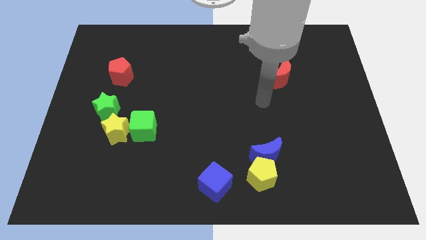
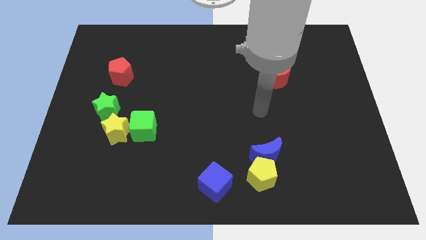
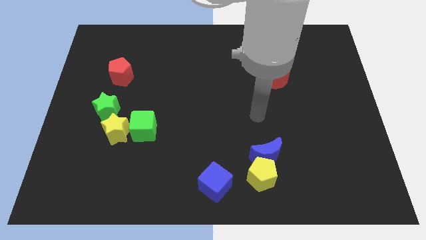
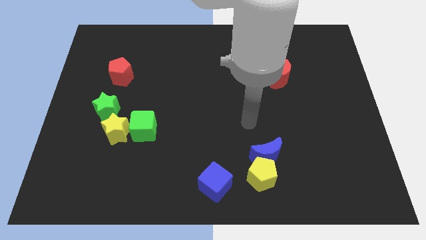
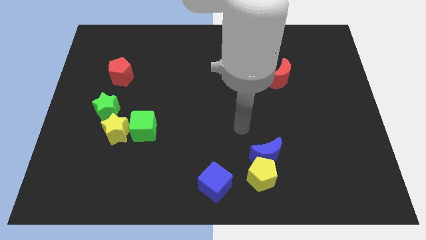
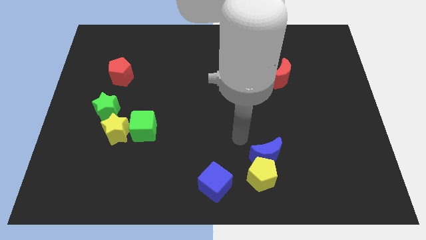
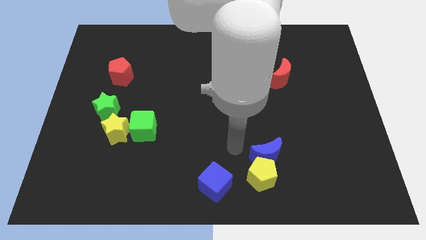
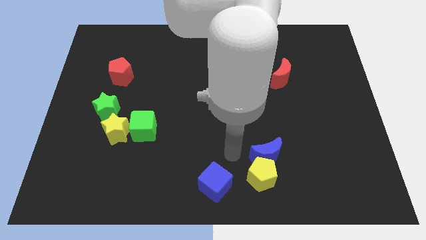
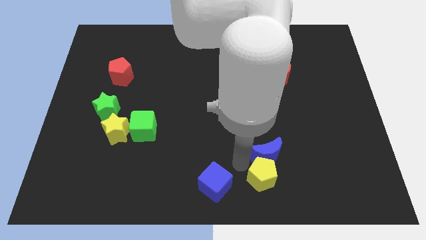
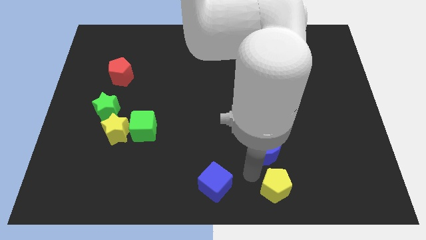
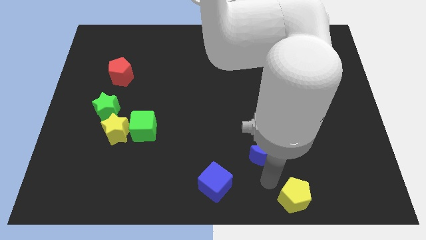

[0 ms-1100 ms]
move the blue moon away from the yellow pentagon

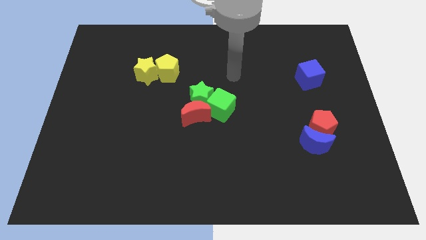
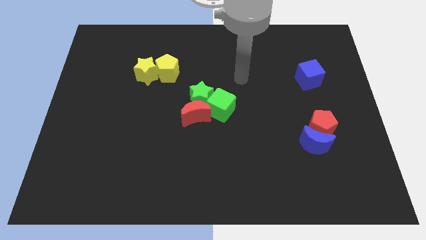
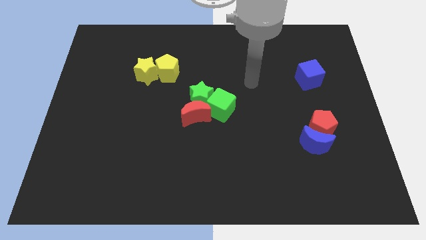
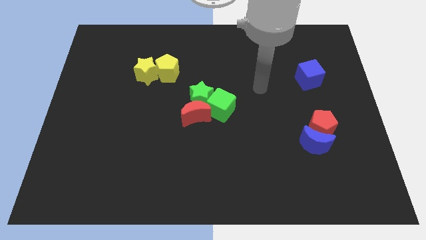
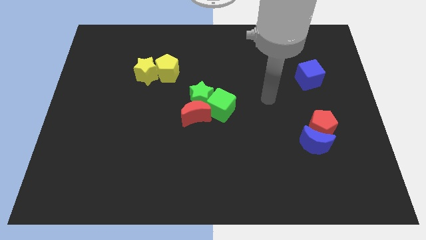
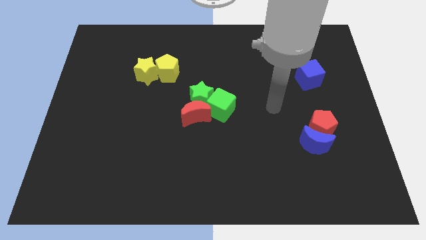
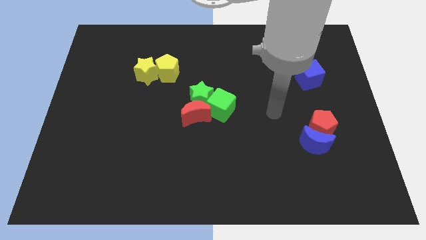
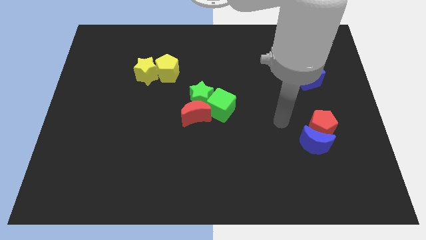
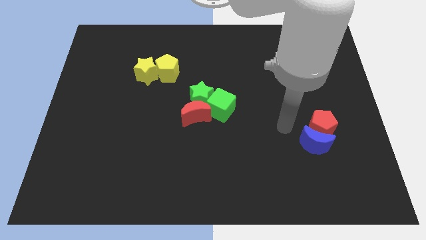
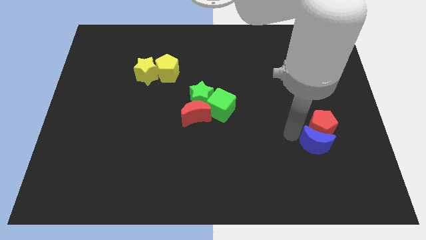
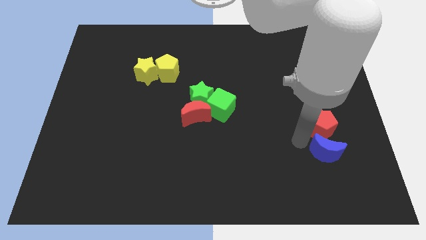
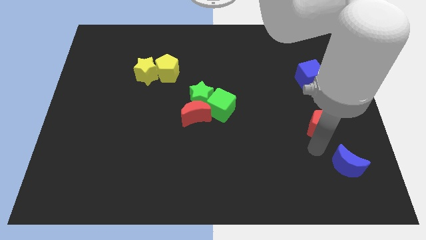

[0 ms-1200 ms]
separate the red pentagon from the blue moon

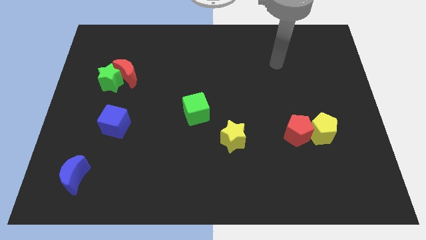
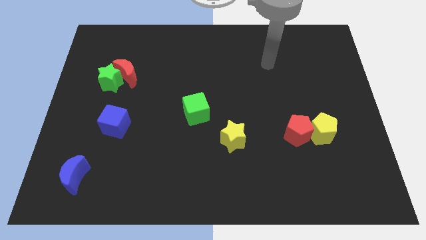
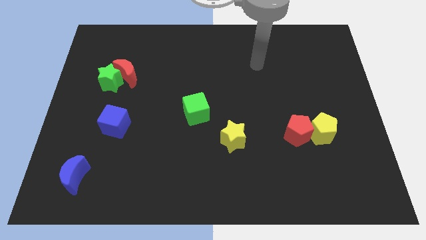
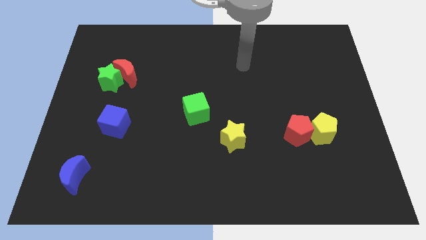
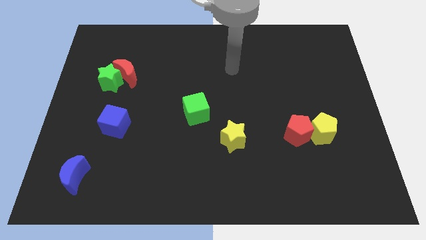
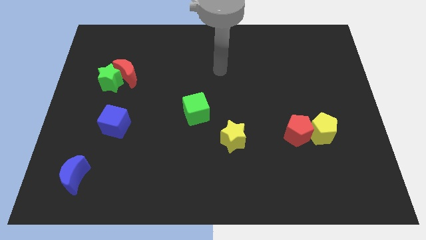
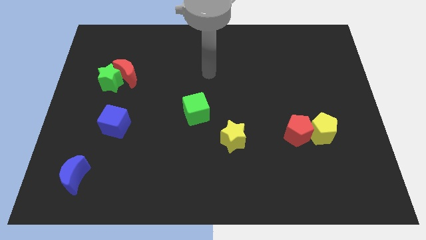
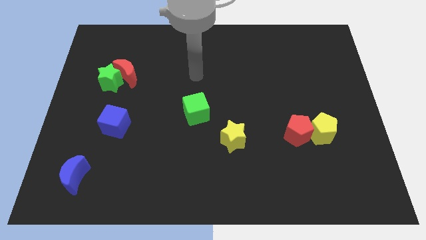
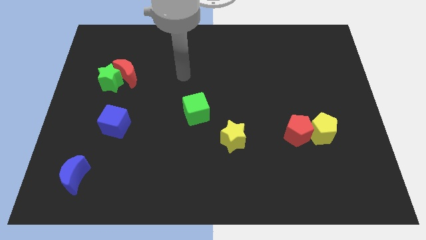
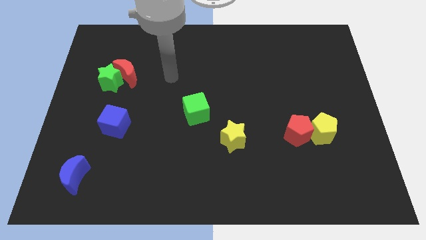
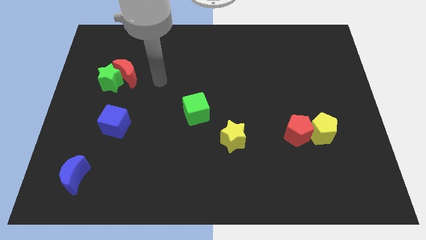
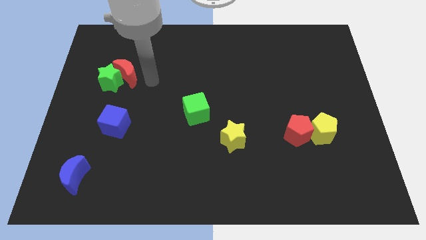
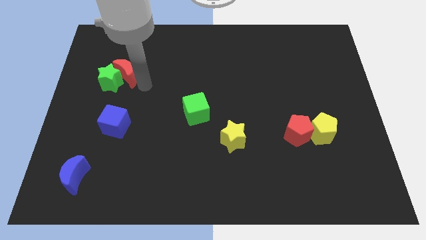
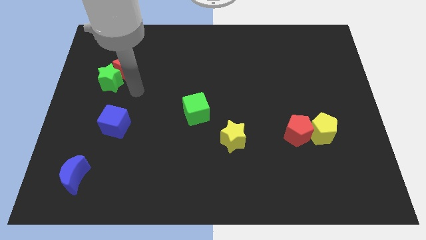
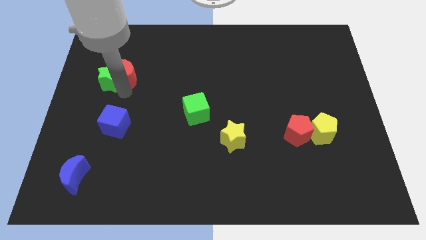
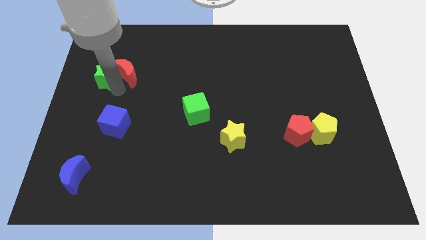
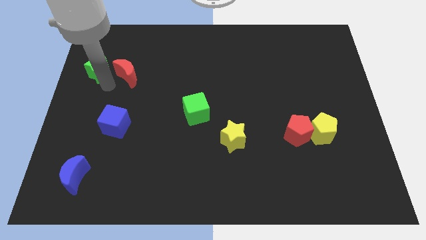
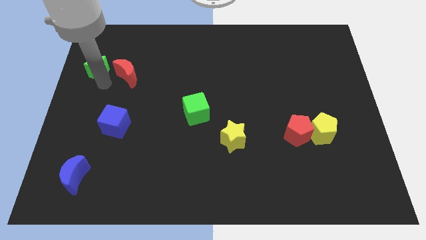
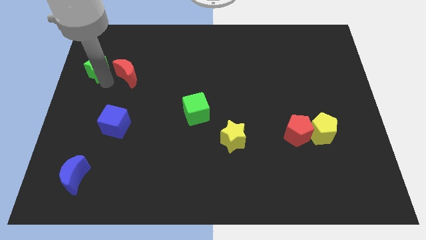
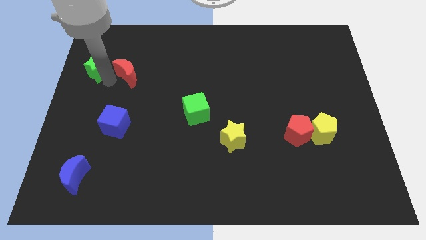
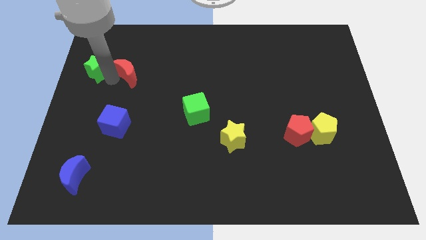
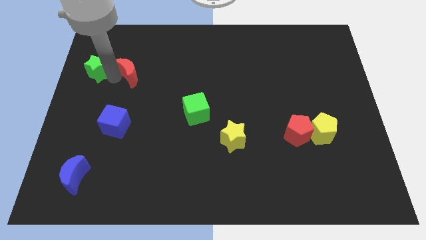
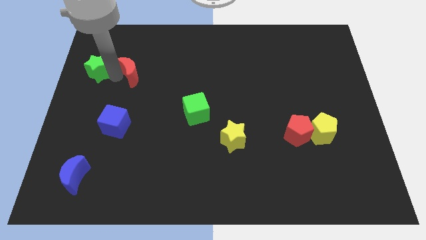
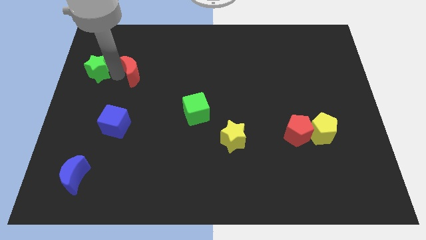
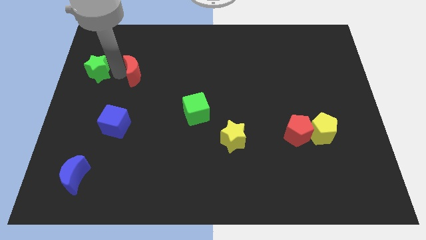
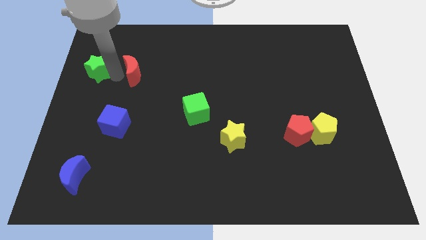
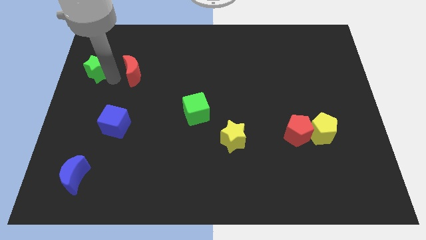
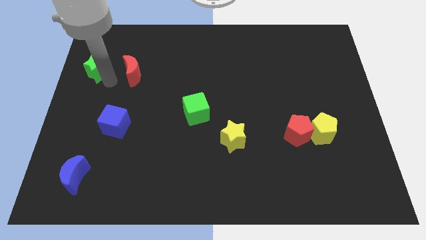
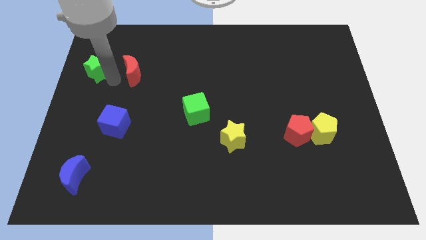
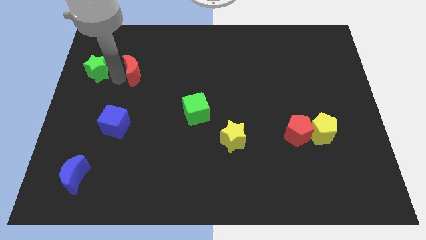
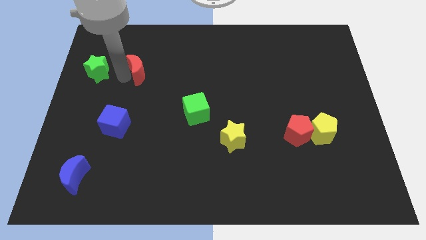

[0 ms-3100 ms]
pull the red moon apart from the green star

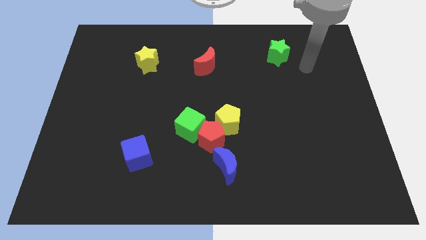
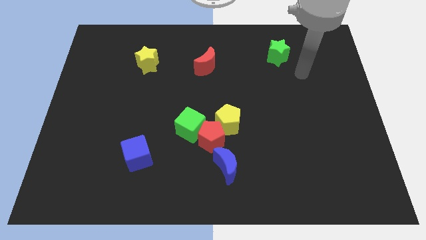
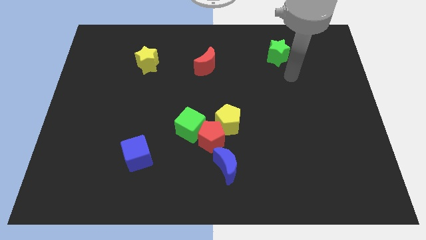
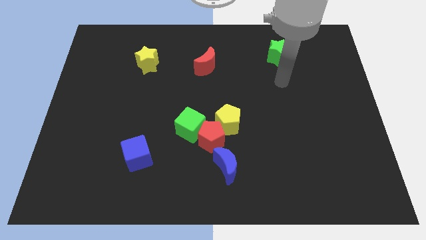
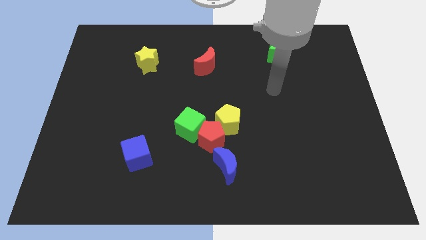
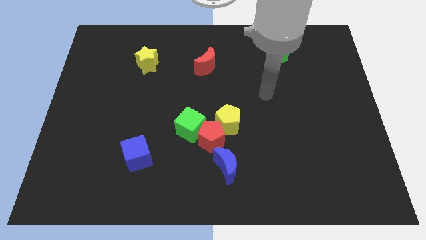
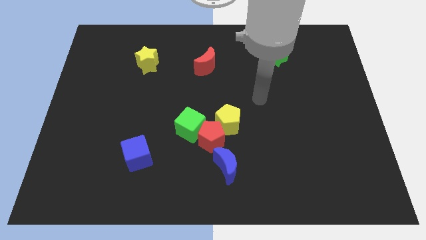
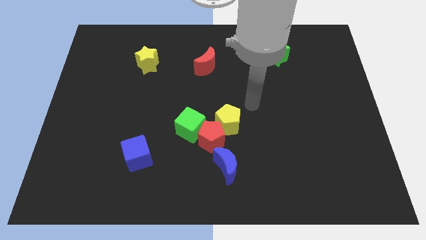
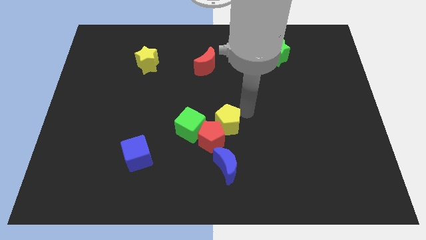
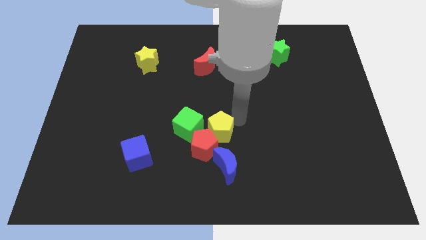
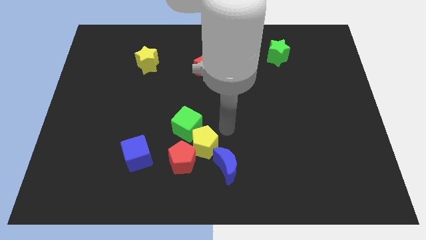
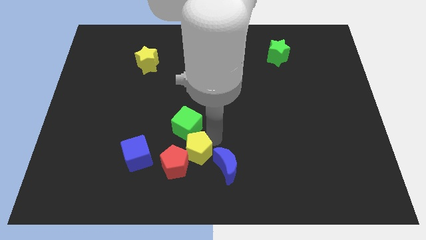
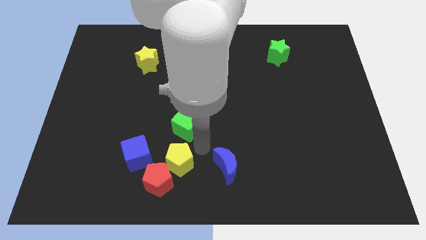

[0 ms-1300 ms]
pull the red pentagon apart from the green cube, yellow pentagon, and blue moon

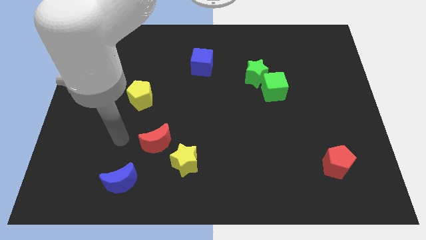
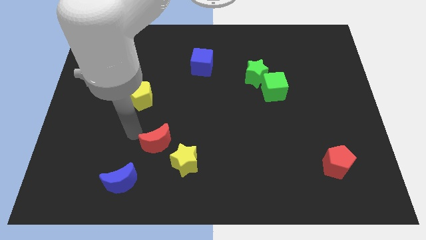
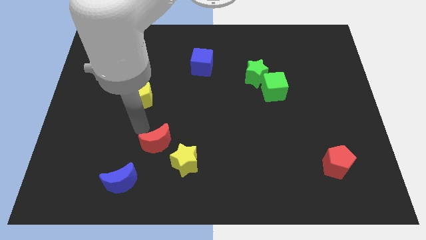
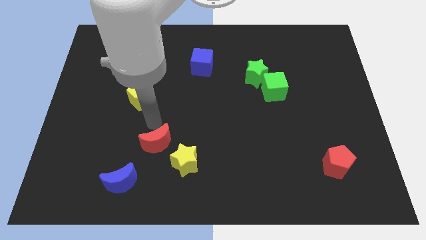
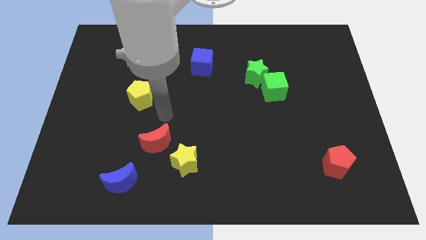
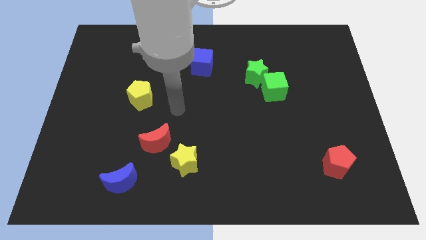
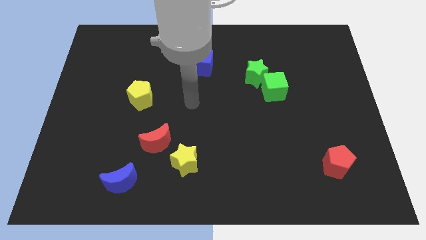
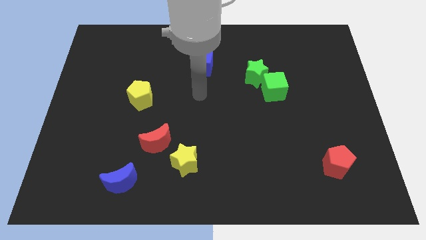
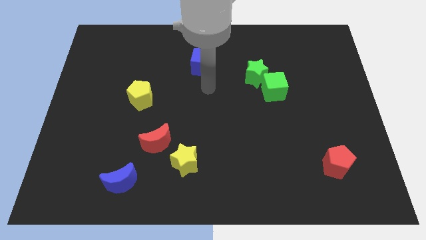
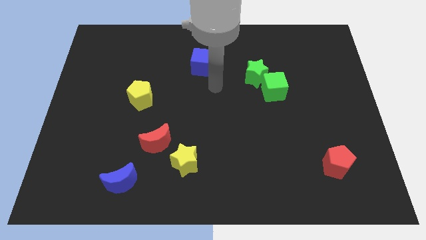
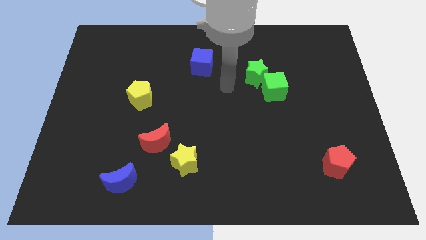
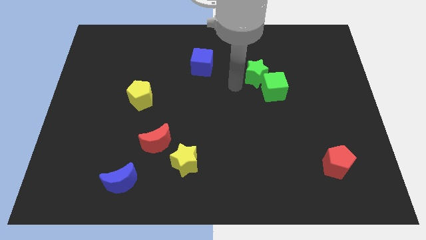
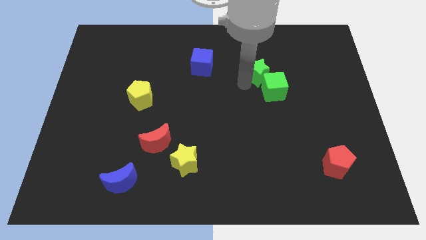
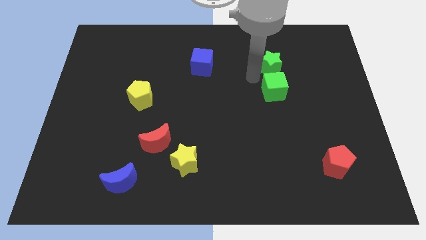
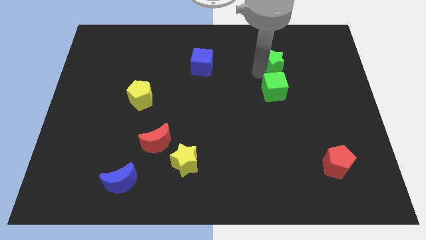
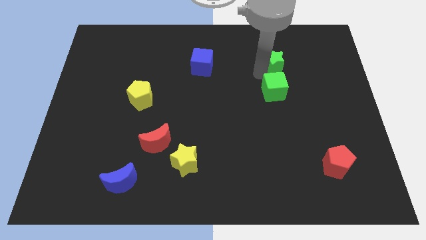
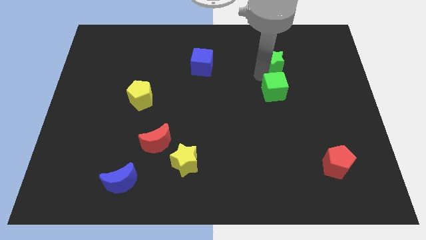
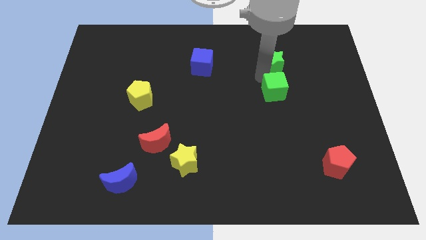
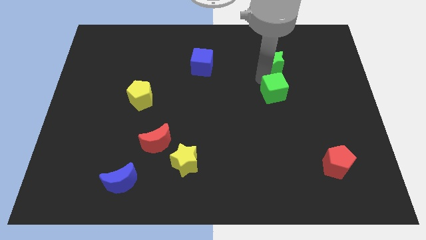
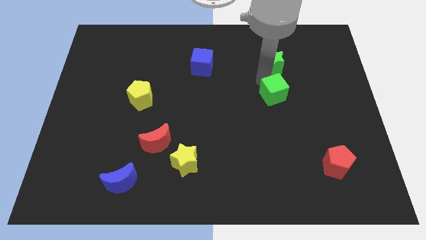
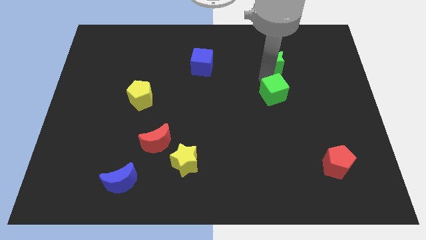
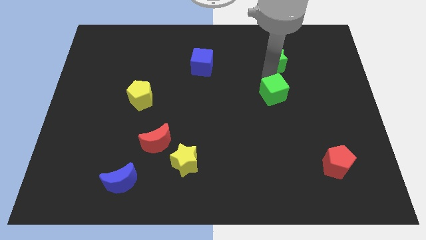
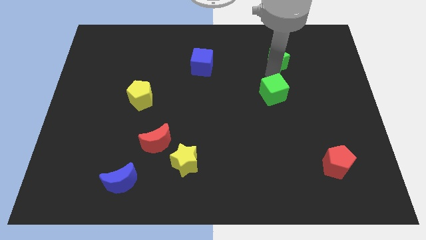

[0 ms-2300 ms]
separate the green cube from the green star

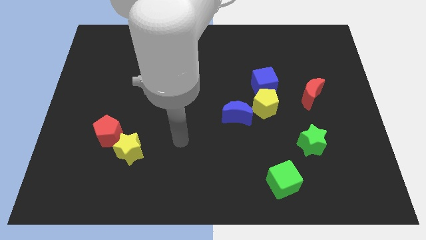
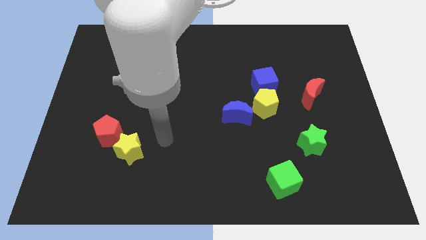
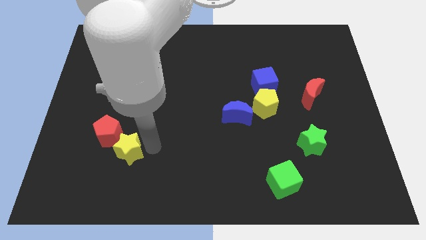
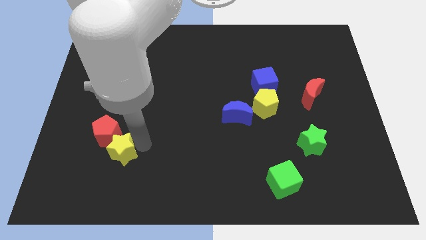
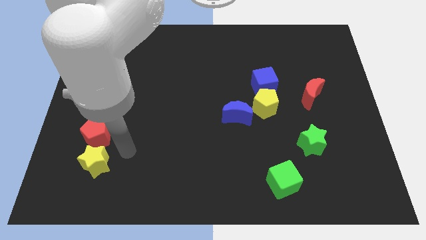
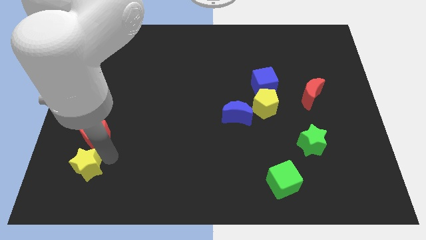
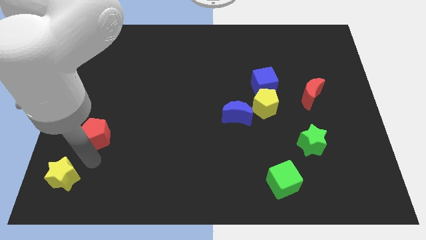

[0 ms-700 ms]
pull the red pentagon apart from the yellow star
